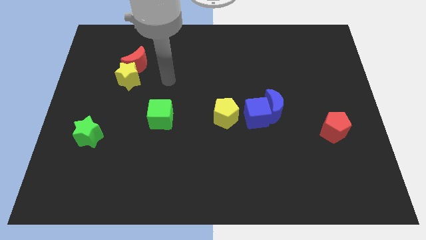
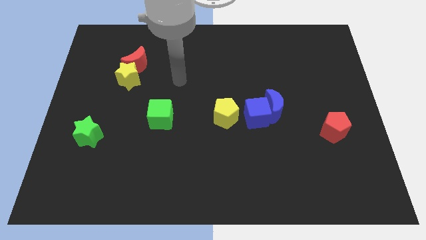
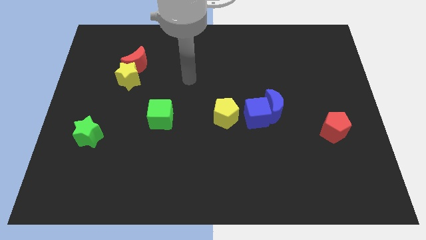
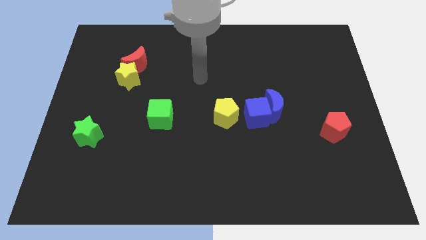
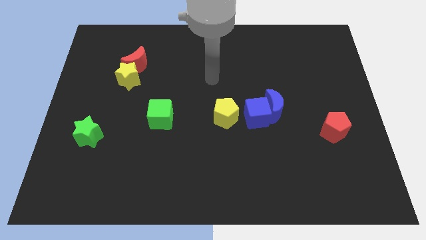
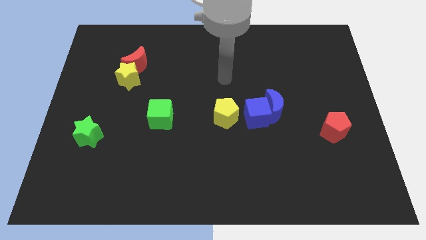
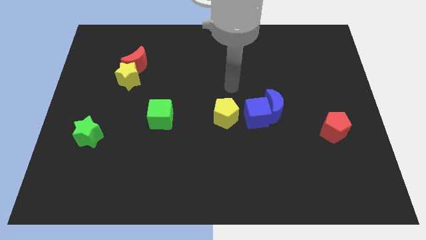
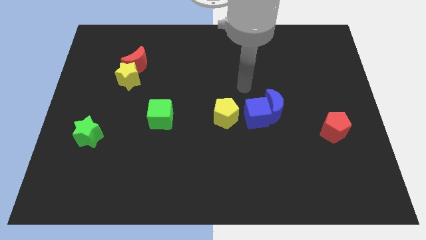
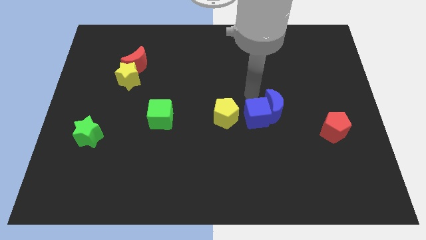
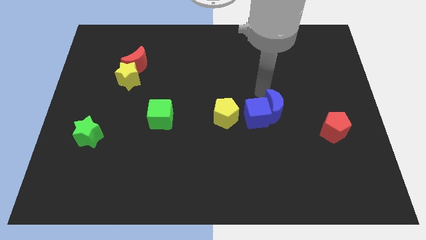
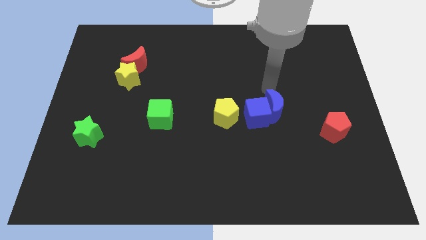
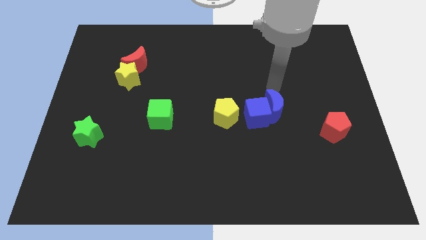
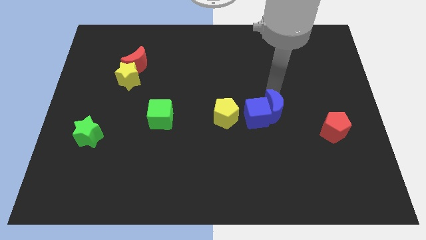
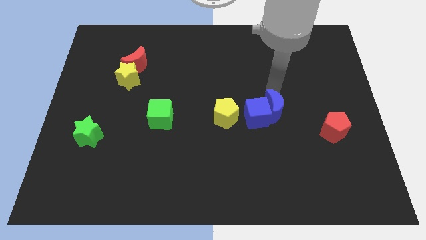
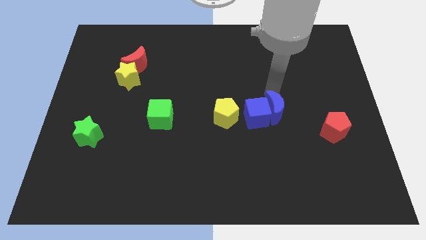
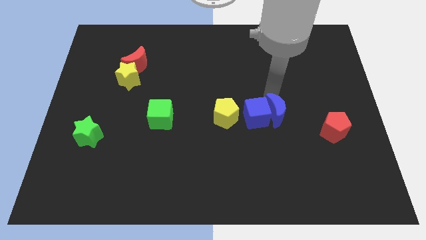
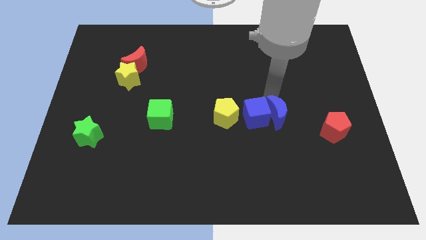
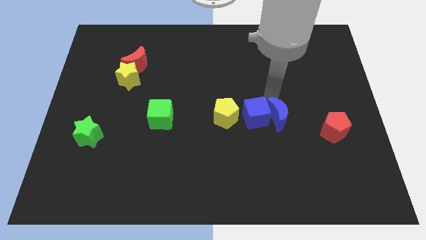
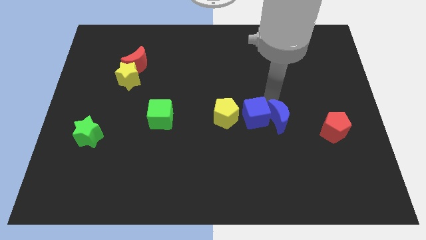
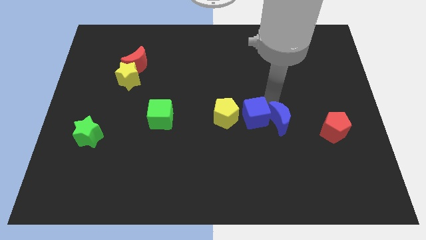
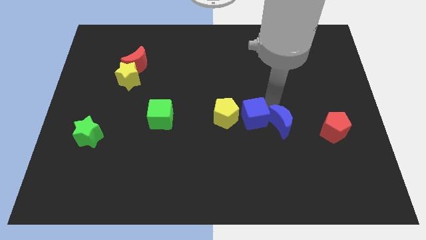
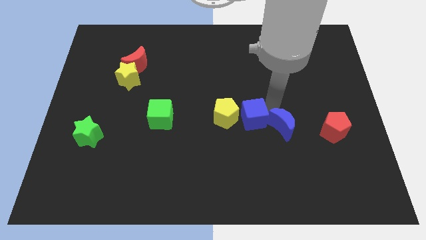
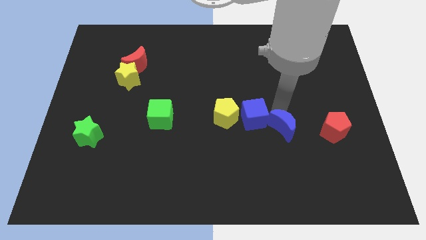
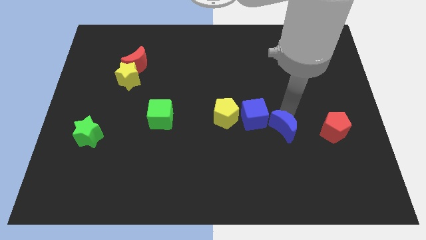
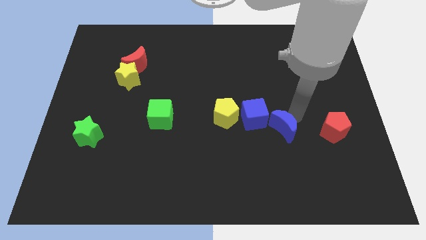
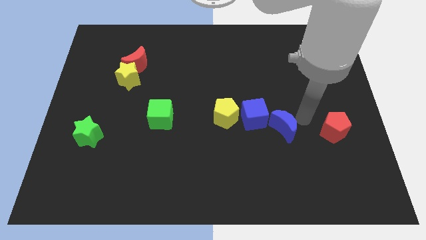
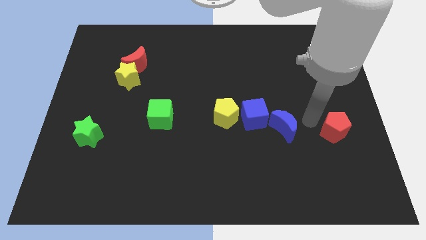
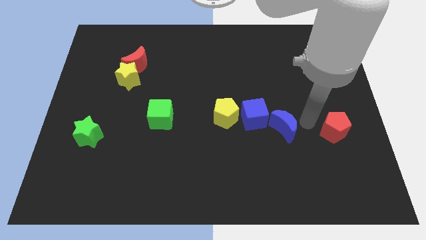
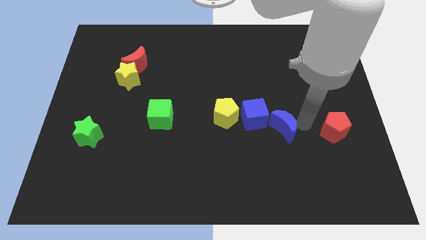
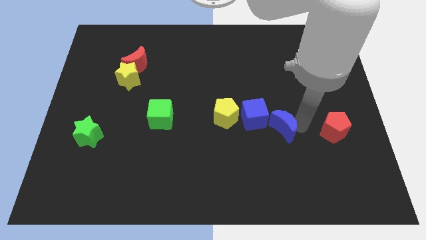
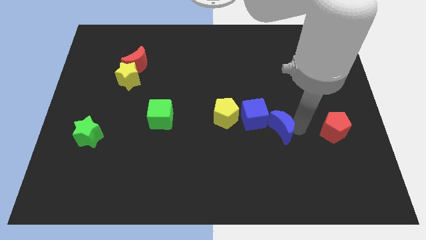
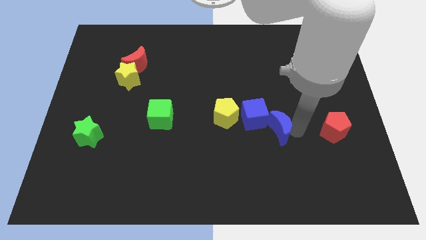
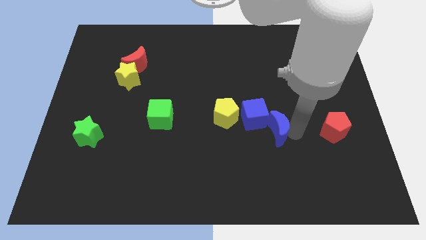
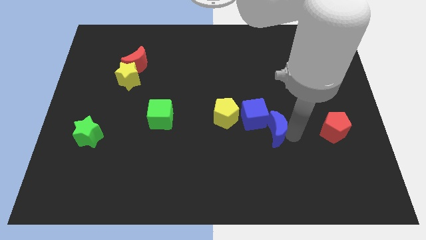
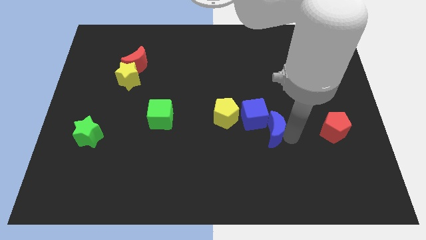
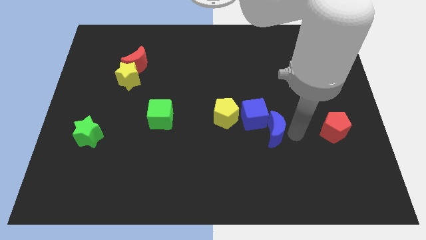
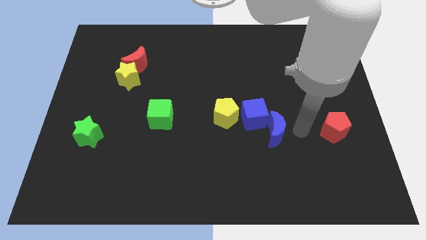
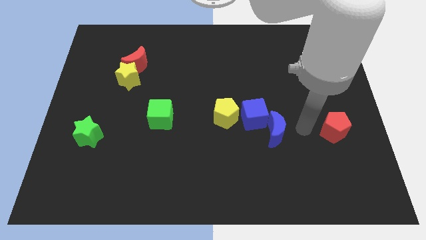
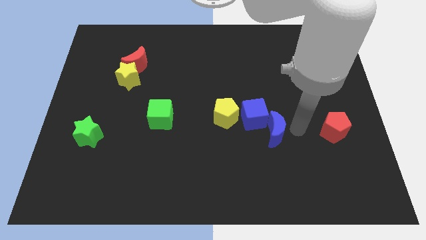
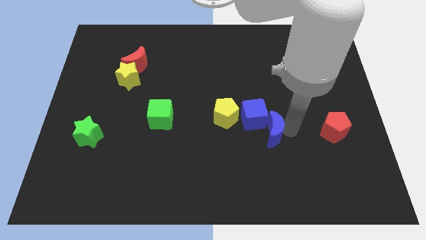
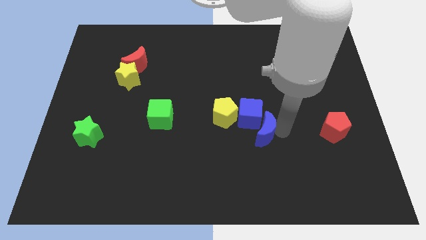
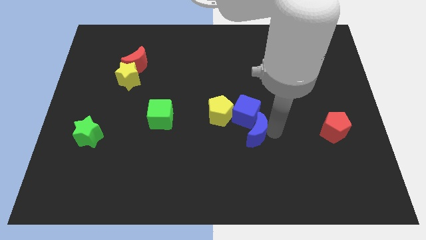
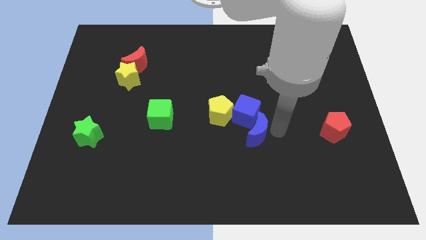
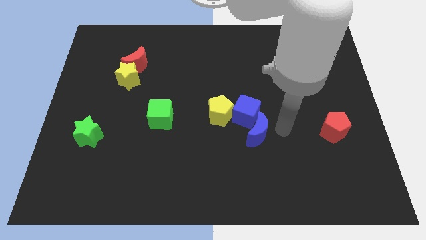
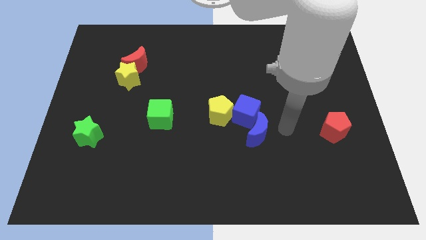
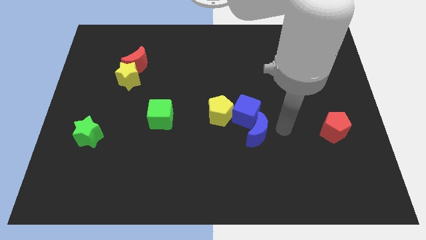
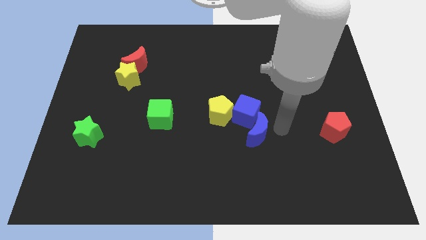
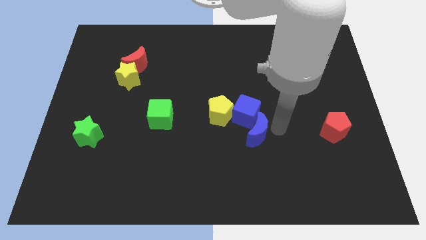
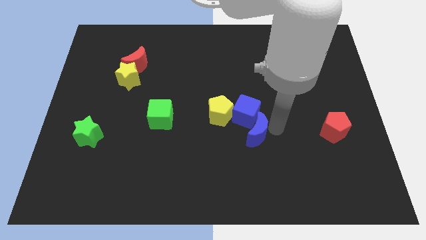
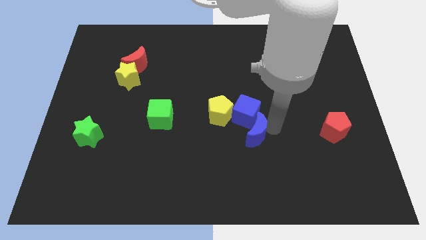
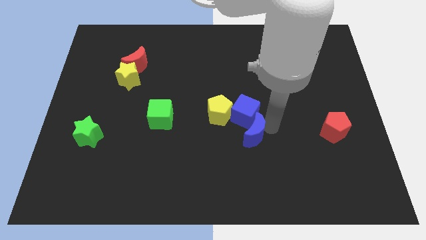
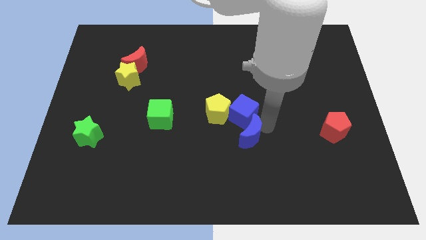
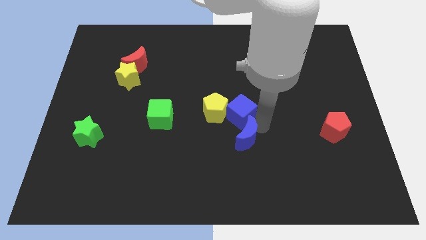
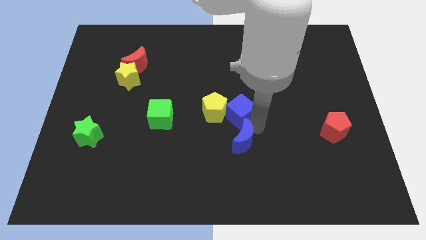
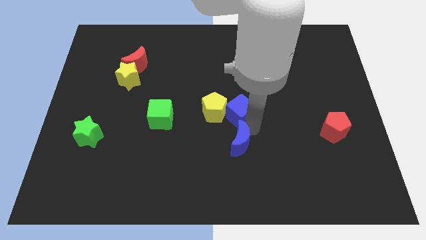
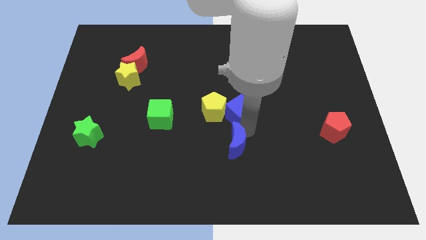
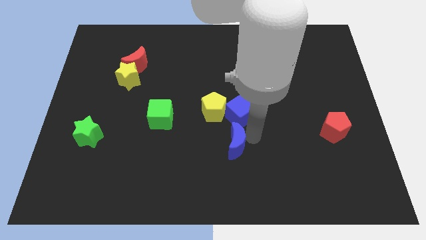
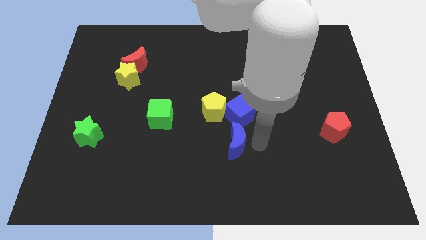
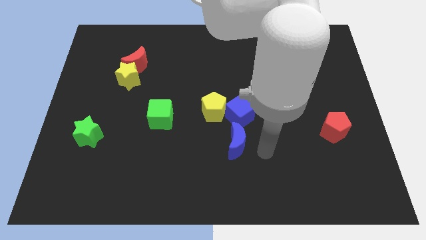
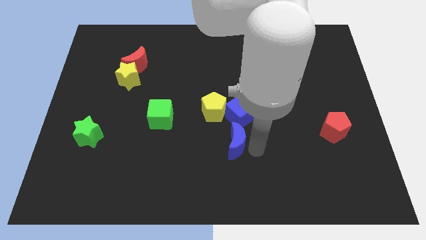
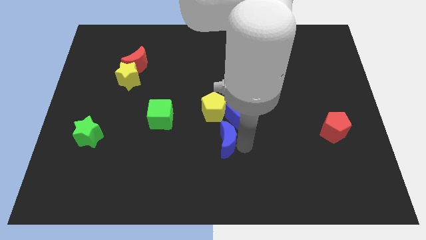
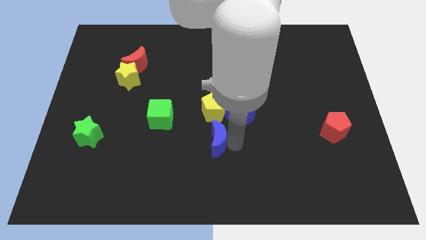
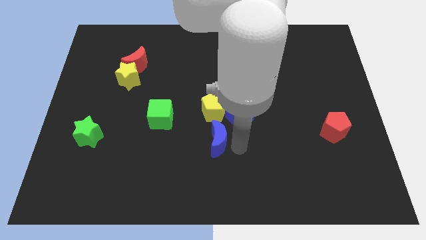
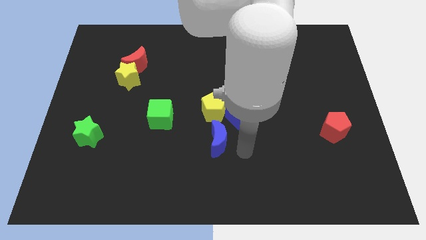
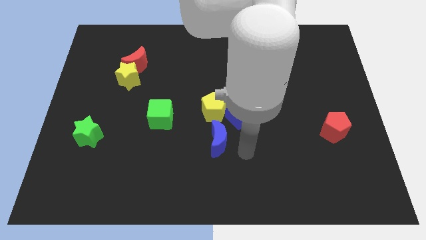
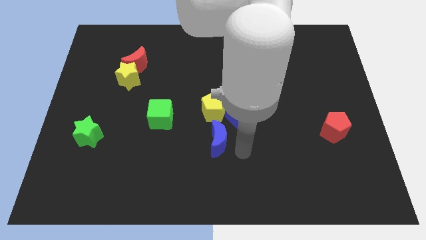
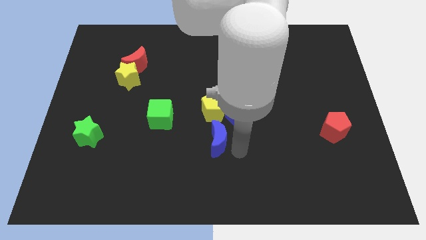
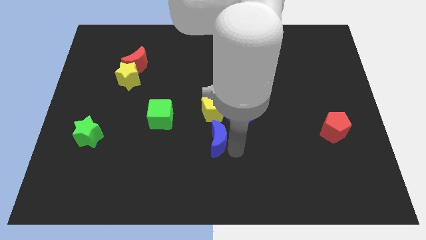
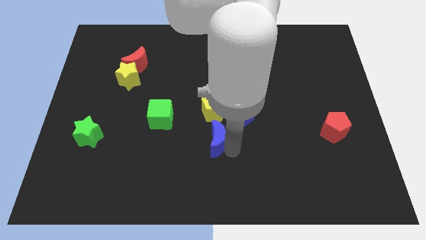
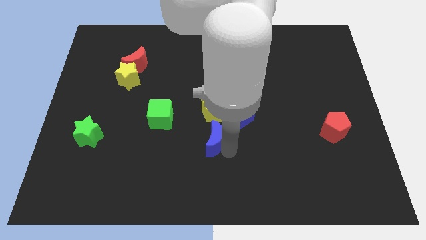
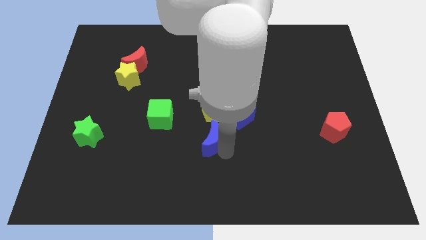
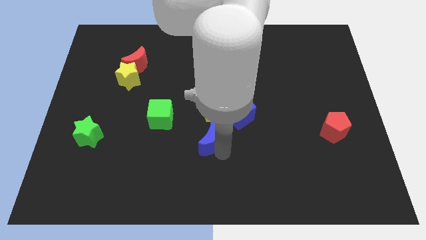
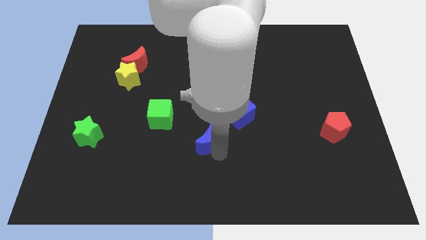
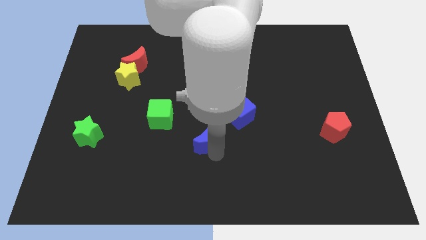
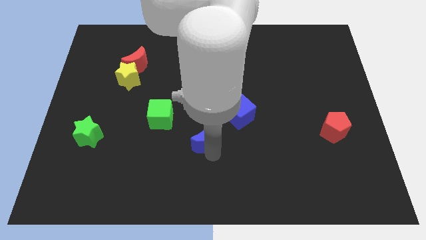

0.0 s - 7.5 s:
put the blue moon to the bottom left of the yellow pentagon
